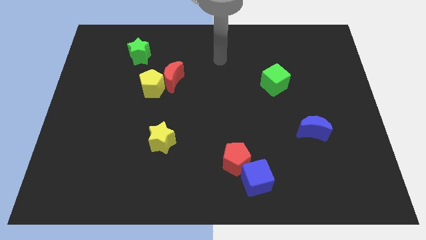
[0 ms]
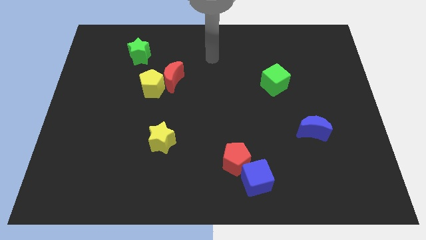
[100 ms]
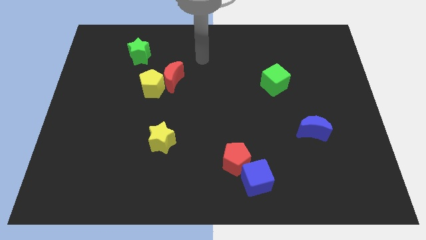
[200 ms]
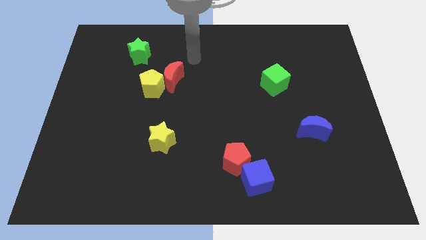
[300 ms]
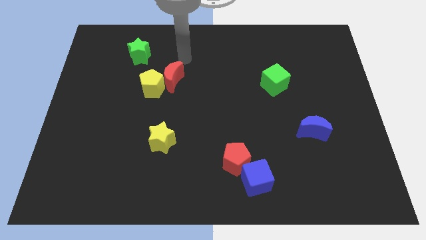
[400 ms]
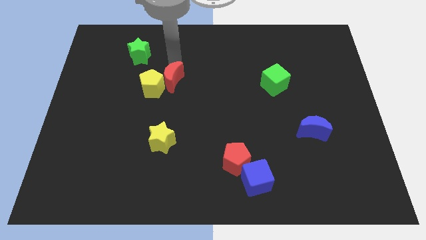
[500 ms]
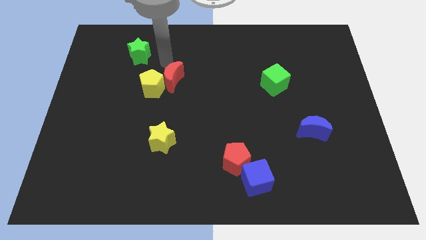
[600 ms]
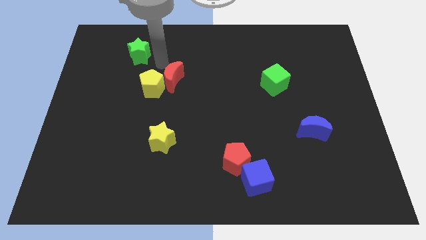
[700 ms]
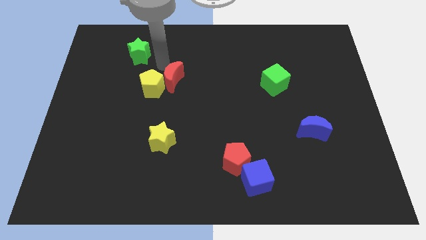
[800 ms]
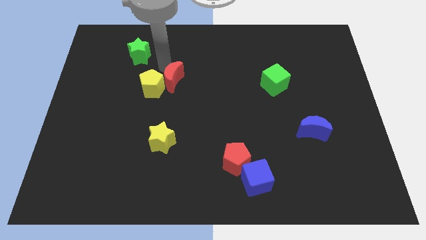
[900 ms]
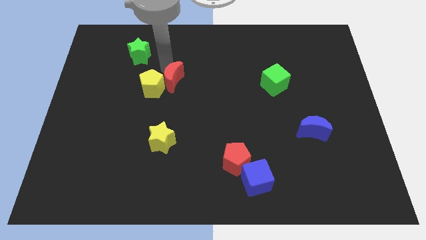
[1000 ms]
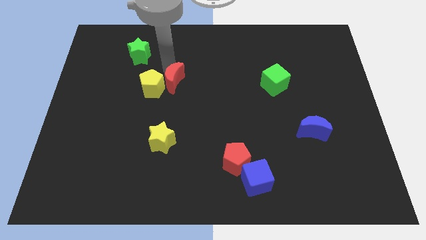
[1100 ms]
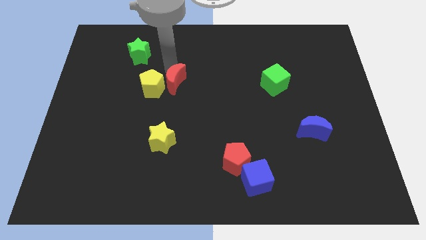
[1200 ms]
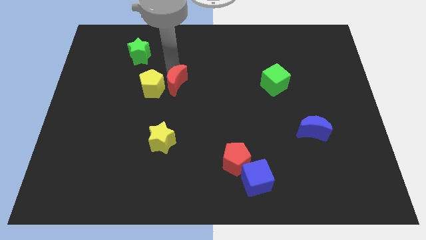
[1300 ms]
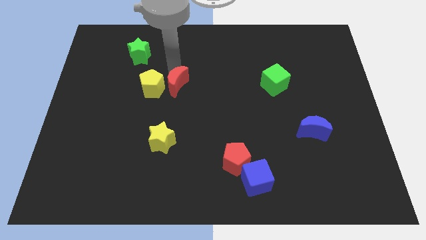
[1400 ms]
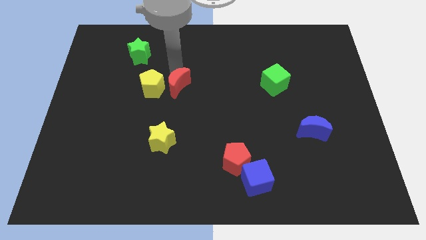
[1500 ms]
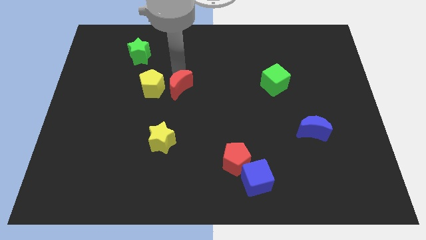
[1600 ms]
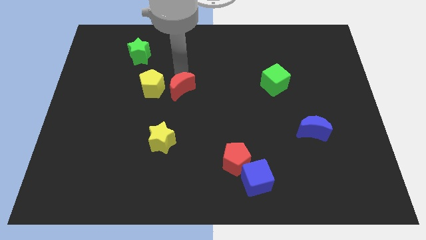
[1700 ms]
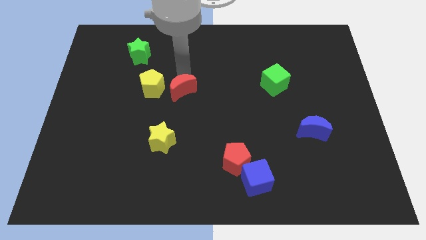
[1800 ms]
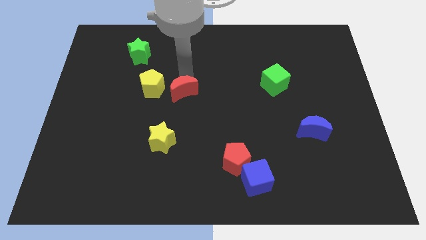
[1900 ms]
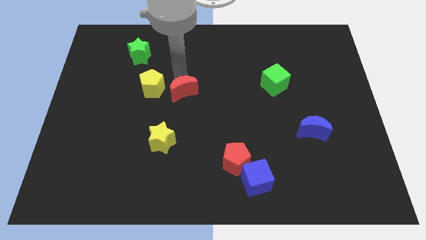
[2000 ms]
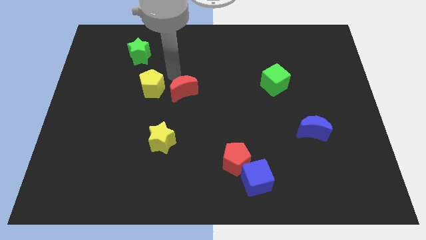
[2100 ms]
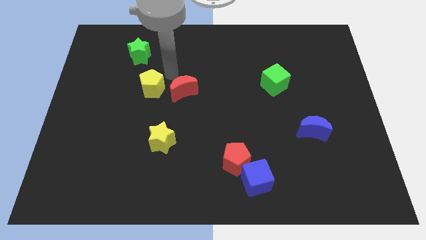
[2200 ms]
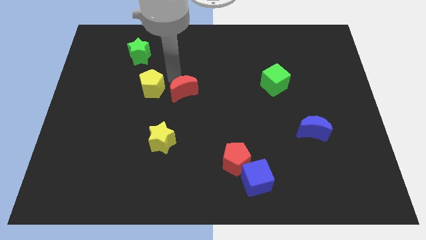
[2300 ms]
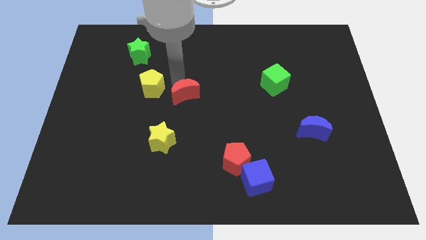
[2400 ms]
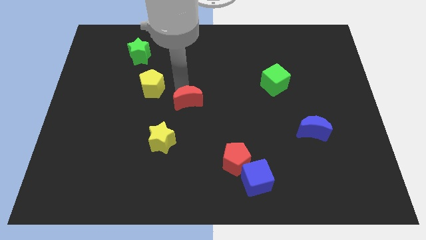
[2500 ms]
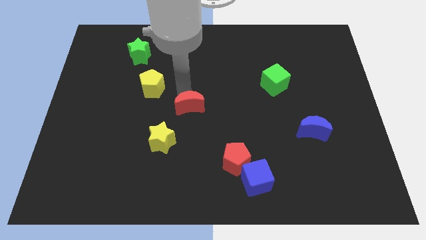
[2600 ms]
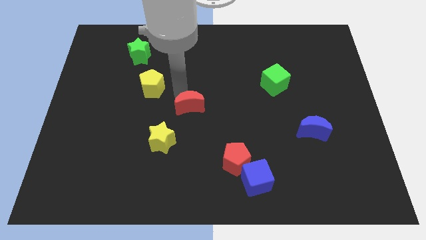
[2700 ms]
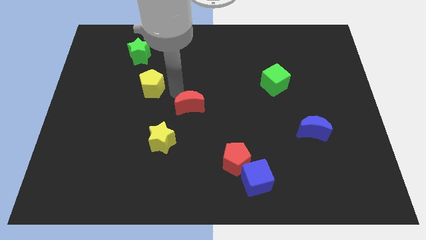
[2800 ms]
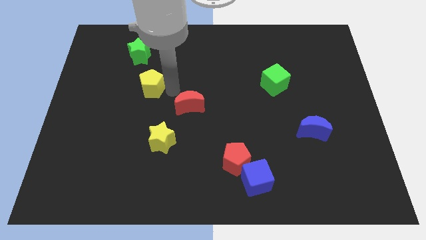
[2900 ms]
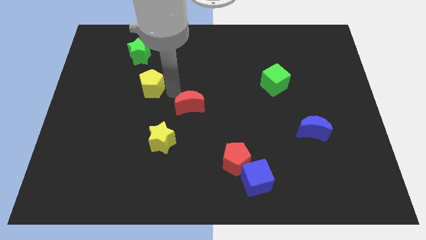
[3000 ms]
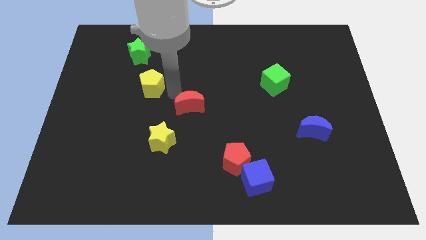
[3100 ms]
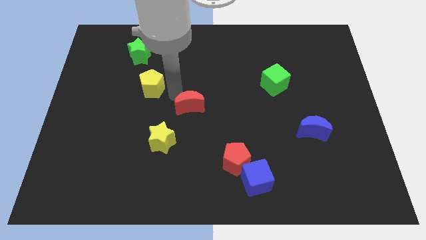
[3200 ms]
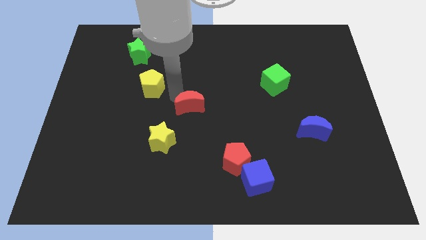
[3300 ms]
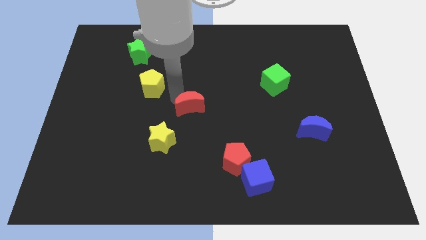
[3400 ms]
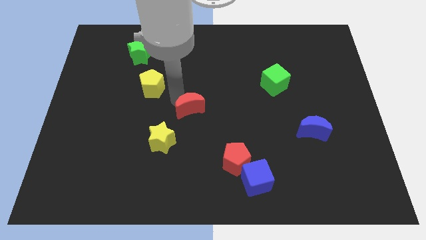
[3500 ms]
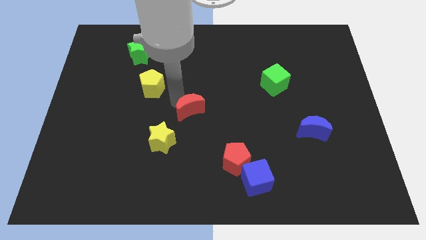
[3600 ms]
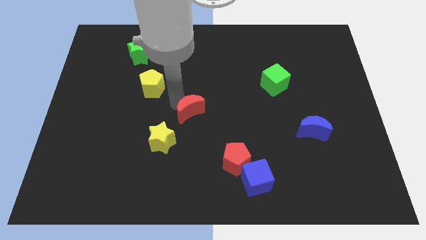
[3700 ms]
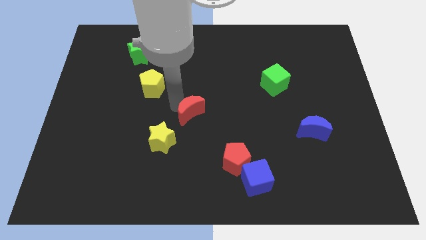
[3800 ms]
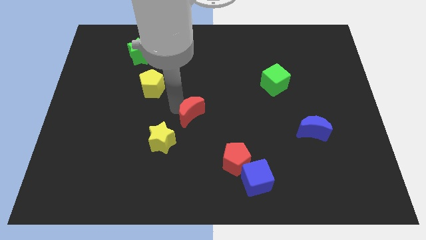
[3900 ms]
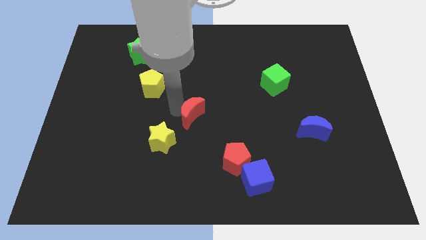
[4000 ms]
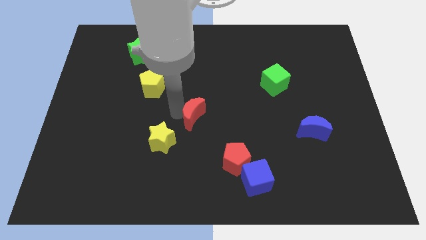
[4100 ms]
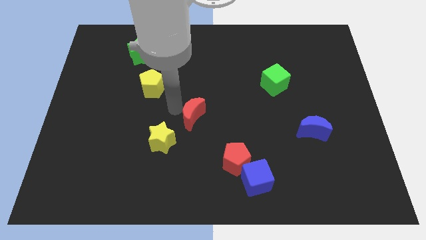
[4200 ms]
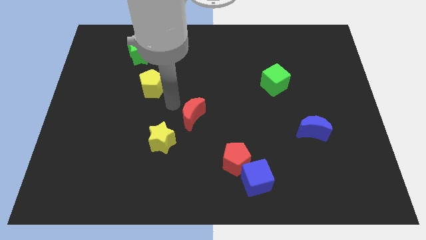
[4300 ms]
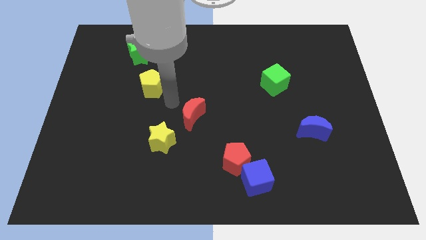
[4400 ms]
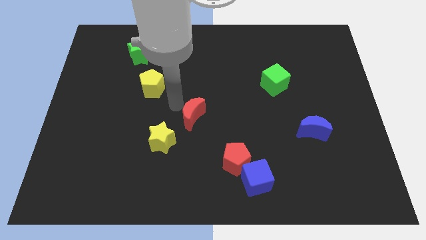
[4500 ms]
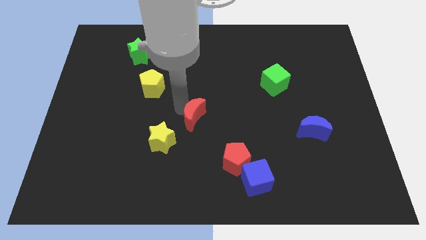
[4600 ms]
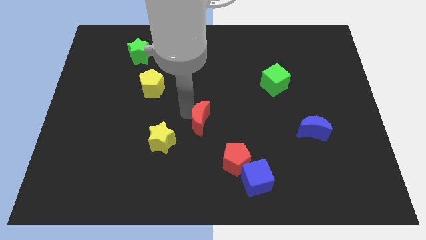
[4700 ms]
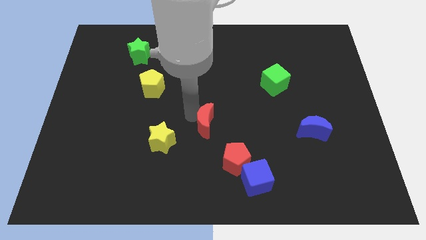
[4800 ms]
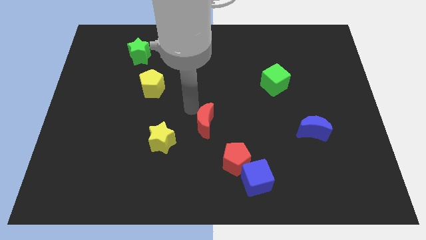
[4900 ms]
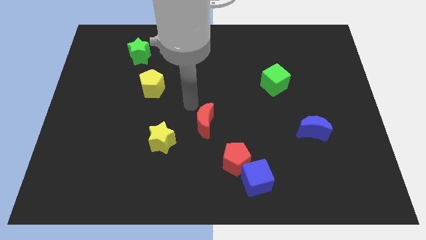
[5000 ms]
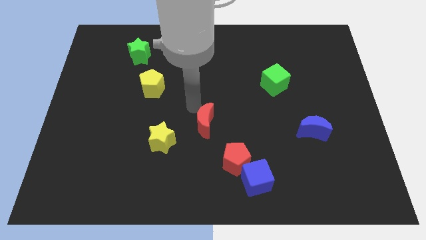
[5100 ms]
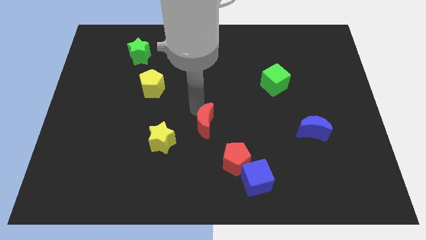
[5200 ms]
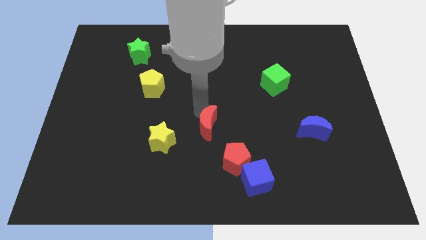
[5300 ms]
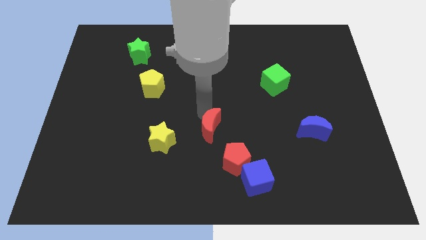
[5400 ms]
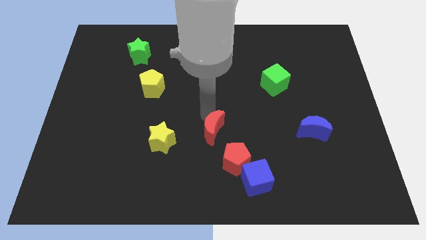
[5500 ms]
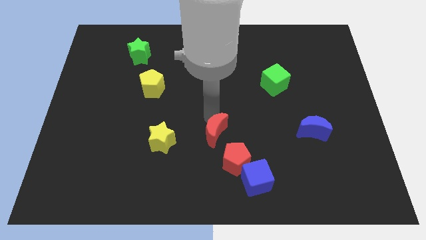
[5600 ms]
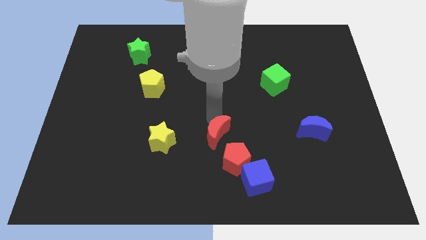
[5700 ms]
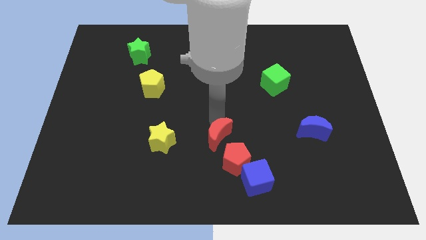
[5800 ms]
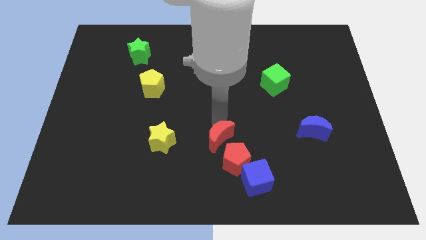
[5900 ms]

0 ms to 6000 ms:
put the red moon to the top left of the blue cube

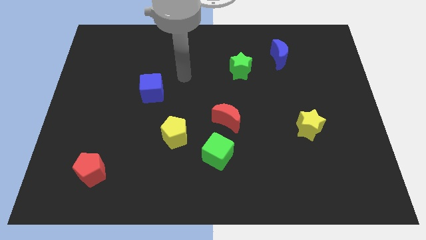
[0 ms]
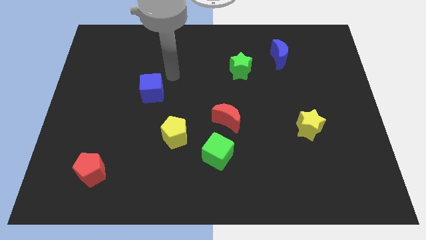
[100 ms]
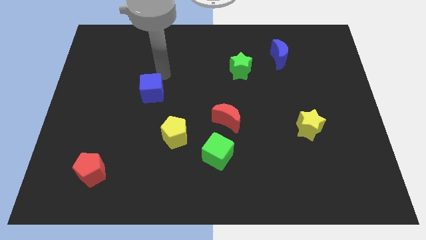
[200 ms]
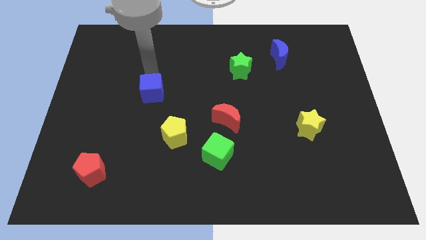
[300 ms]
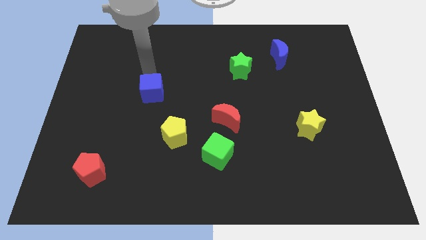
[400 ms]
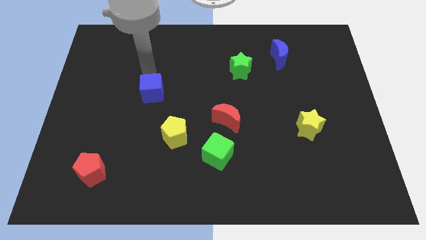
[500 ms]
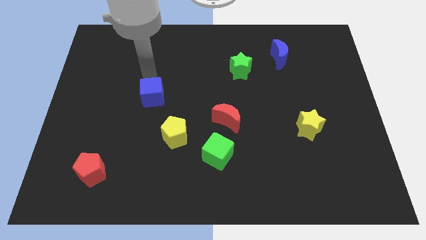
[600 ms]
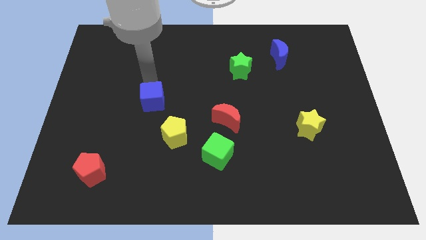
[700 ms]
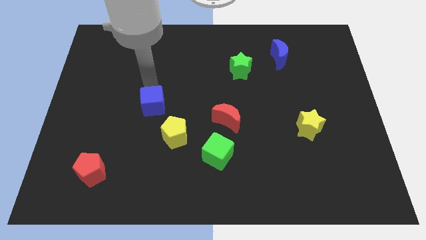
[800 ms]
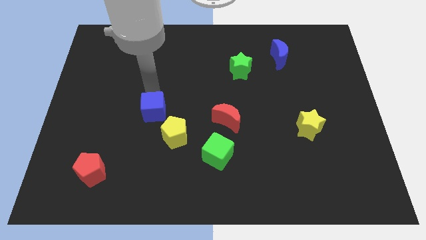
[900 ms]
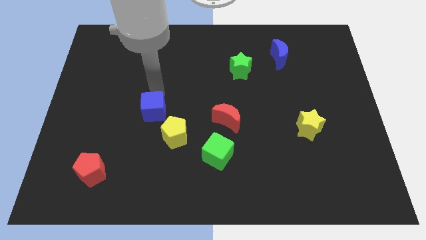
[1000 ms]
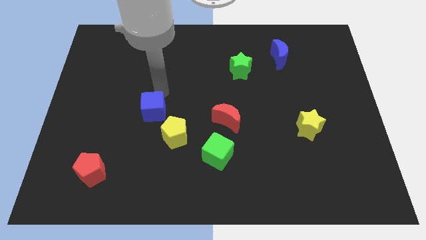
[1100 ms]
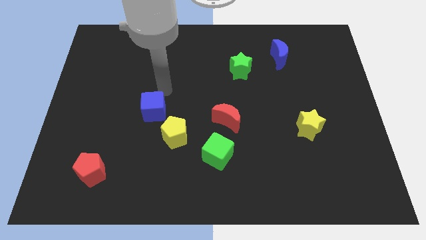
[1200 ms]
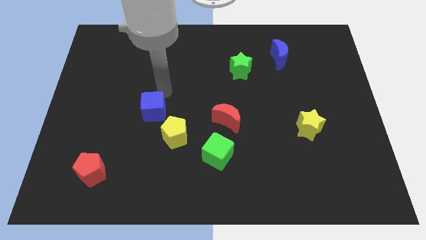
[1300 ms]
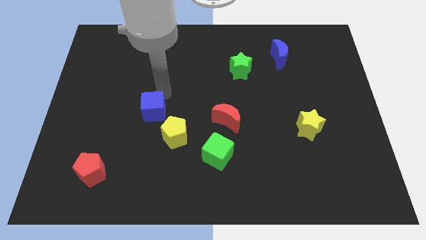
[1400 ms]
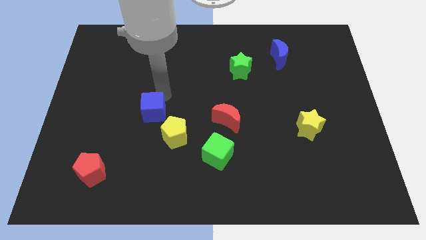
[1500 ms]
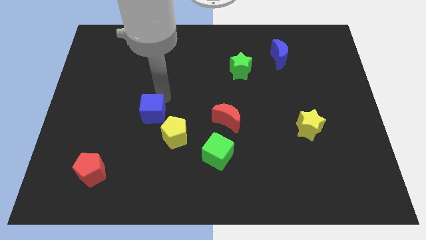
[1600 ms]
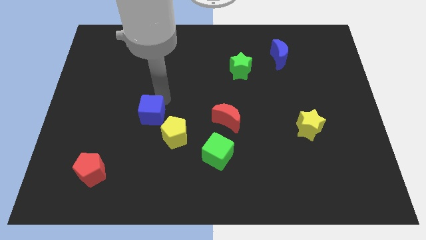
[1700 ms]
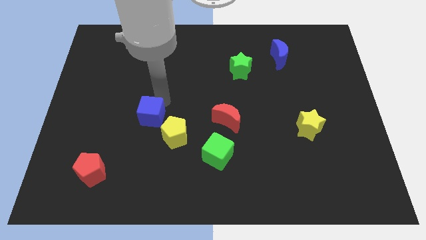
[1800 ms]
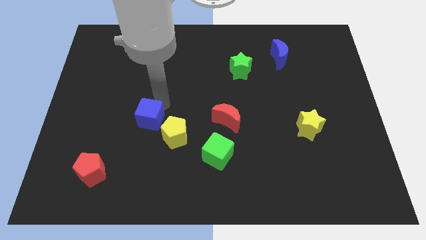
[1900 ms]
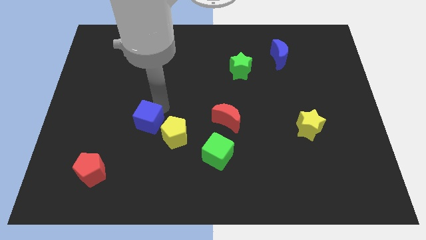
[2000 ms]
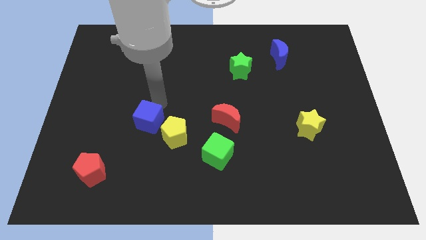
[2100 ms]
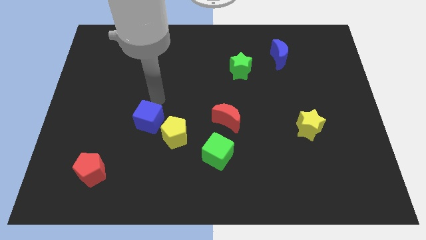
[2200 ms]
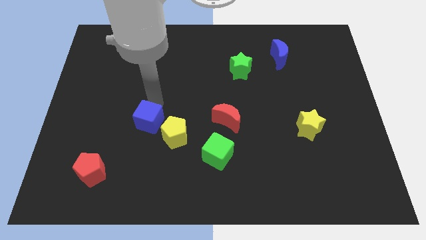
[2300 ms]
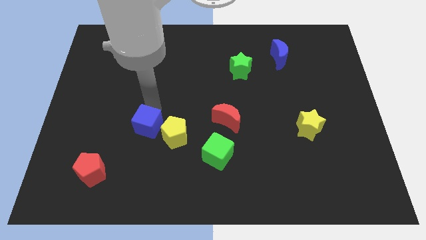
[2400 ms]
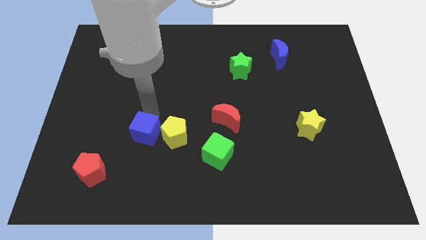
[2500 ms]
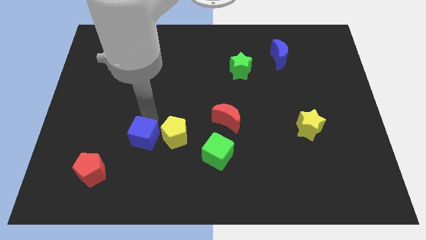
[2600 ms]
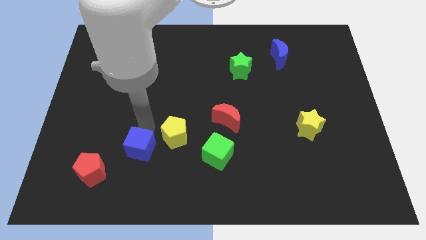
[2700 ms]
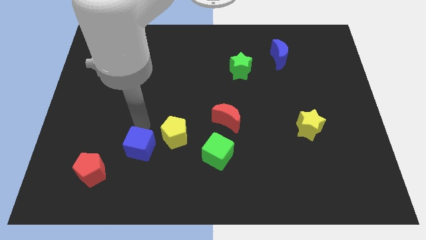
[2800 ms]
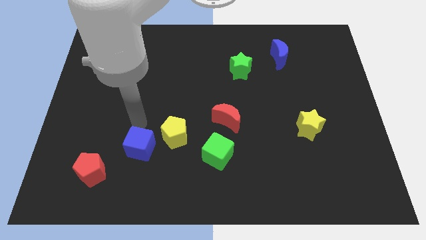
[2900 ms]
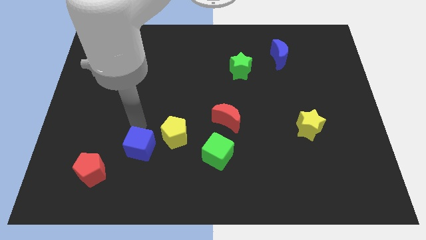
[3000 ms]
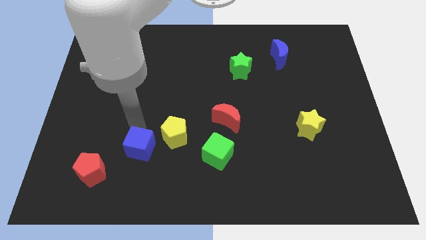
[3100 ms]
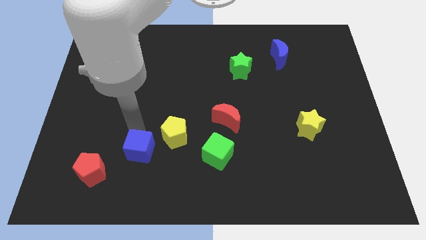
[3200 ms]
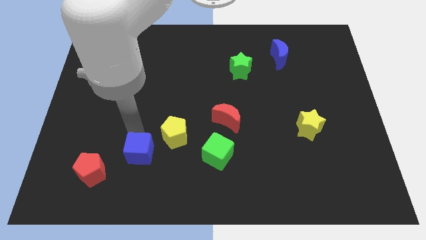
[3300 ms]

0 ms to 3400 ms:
move the blue cube to the right side of the red pentagon
